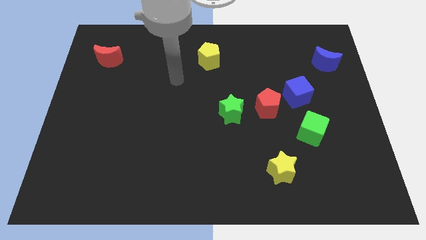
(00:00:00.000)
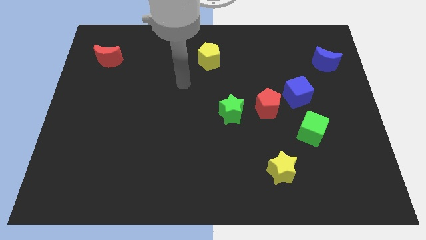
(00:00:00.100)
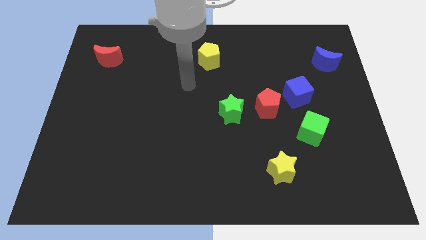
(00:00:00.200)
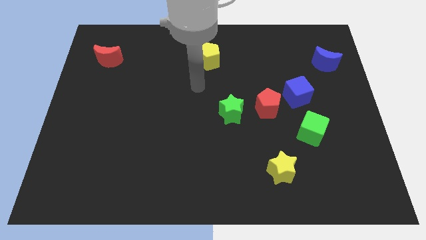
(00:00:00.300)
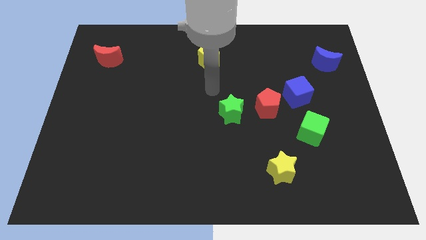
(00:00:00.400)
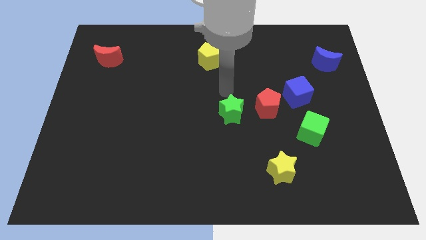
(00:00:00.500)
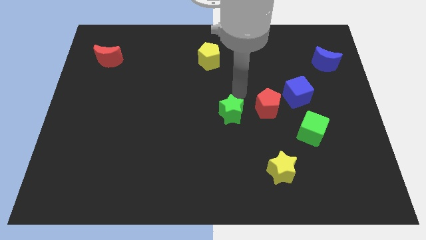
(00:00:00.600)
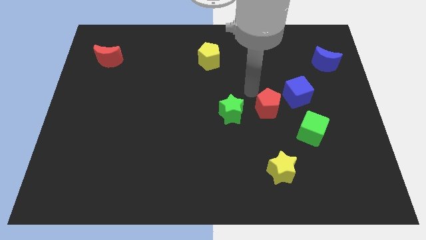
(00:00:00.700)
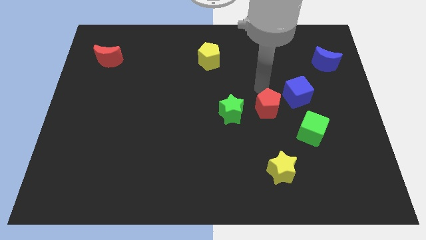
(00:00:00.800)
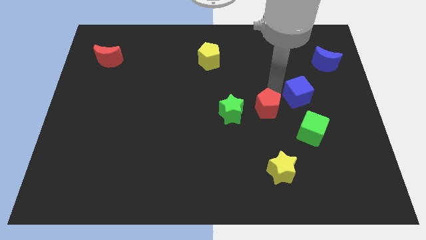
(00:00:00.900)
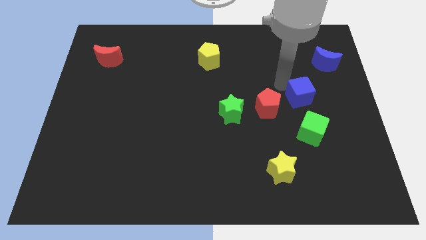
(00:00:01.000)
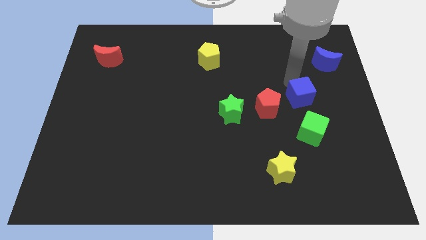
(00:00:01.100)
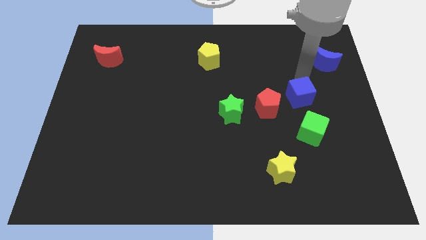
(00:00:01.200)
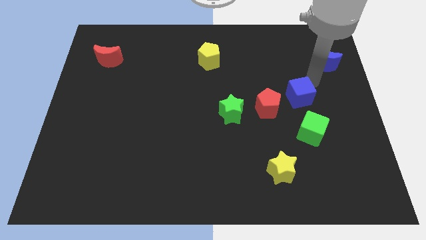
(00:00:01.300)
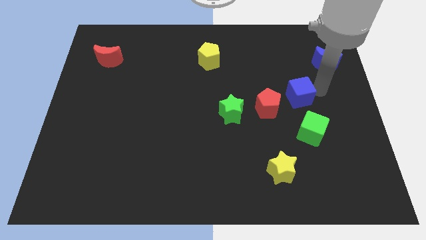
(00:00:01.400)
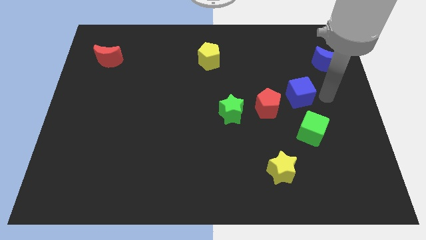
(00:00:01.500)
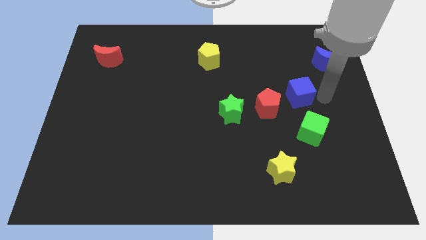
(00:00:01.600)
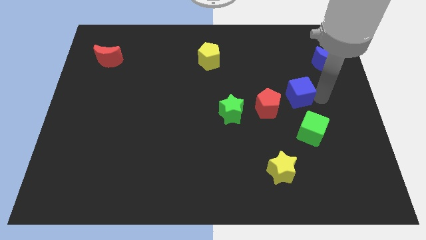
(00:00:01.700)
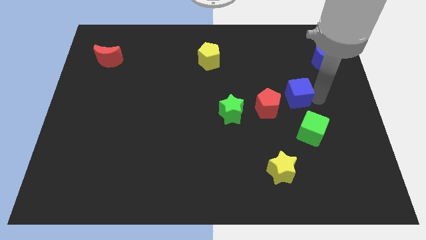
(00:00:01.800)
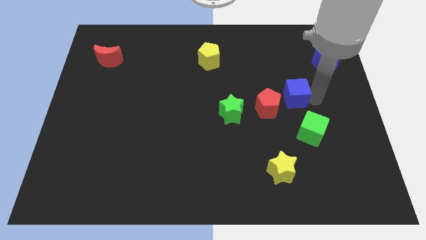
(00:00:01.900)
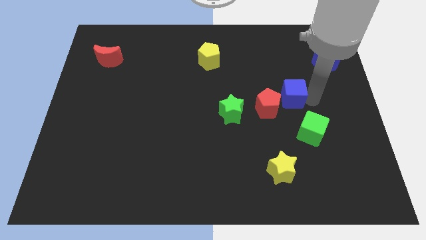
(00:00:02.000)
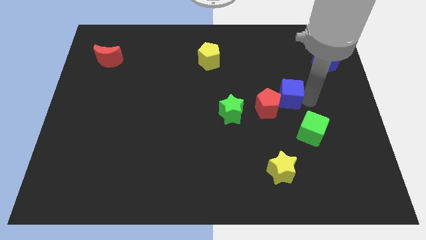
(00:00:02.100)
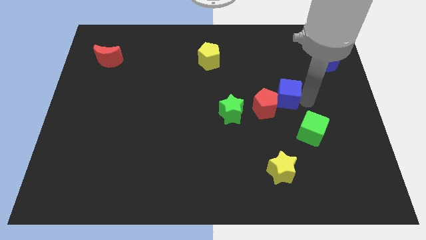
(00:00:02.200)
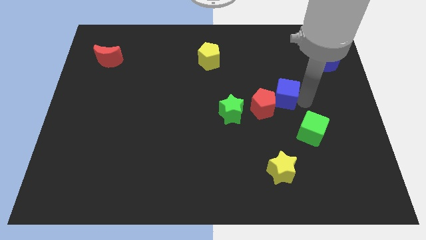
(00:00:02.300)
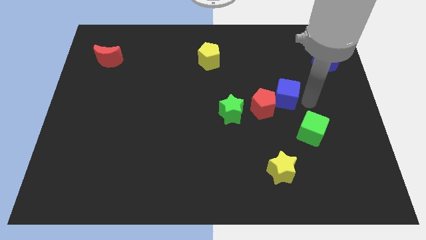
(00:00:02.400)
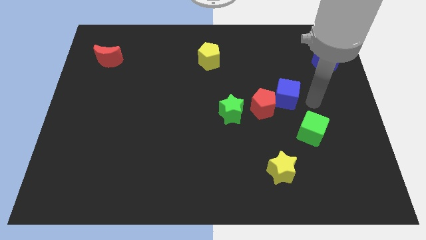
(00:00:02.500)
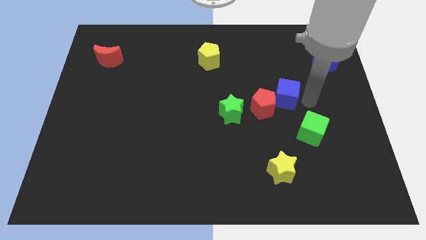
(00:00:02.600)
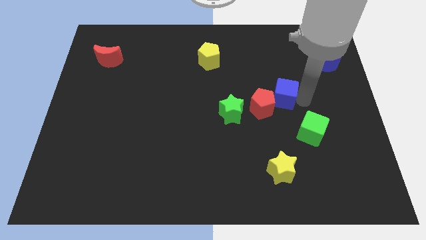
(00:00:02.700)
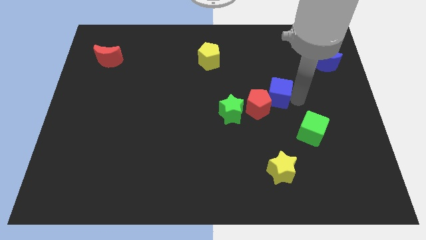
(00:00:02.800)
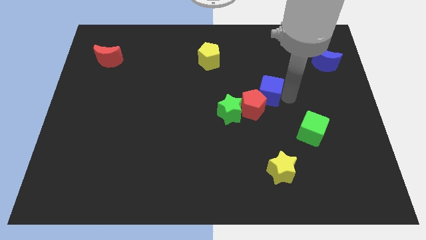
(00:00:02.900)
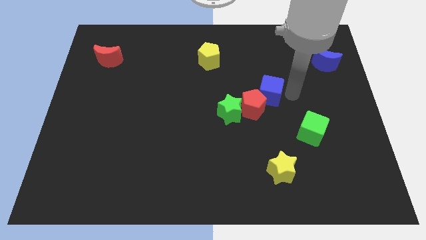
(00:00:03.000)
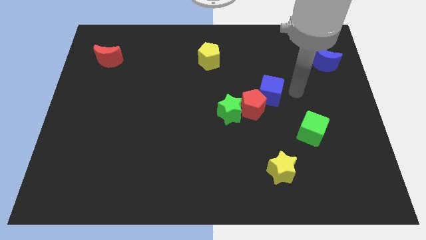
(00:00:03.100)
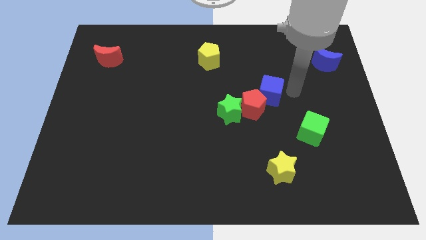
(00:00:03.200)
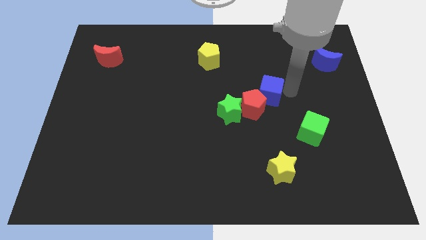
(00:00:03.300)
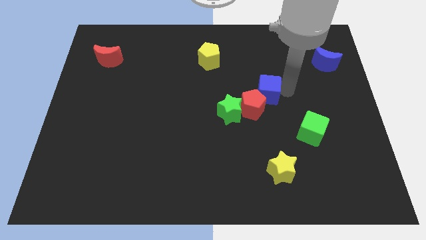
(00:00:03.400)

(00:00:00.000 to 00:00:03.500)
move the blue cube a bit left

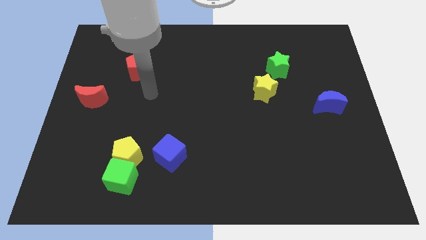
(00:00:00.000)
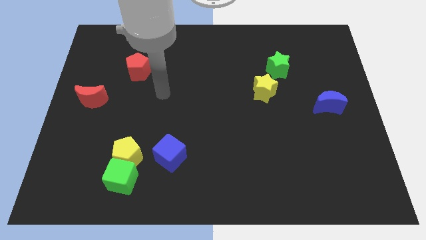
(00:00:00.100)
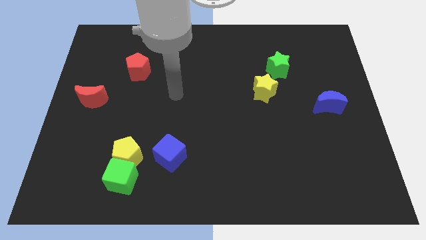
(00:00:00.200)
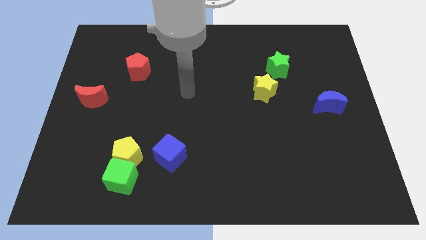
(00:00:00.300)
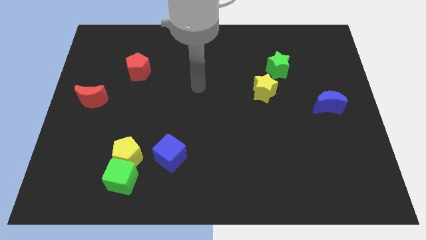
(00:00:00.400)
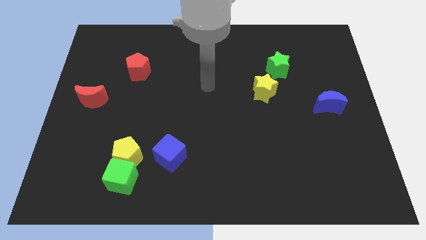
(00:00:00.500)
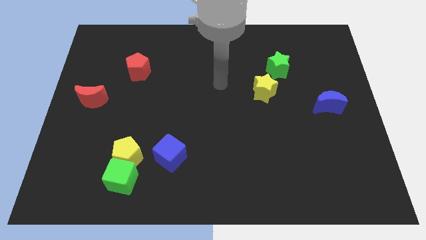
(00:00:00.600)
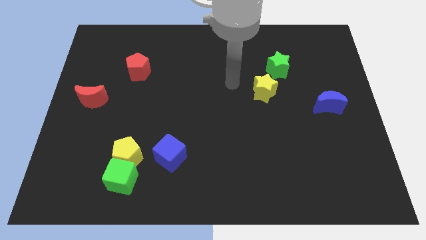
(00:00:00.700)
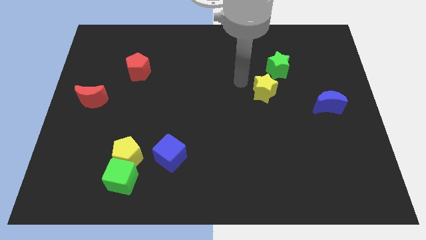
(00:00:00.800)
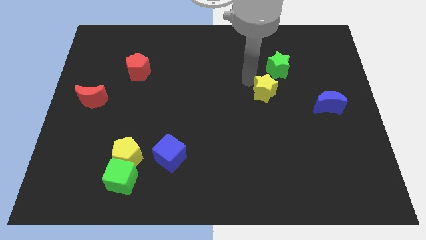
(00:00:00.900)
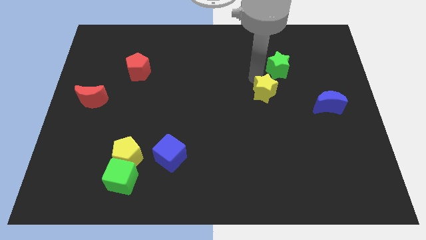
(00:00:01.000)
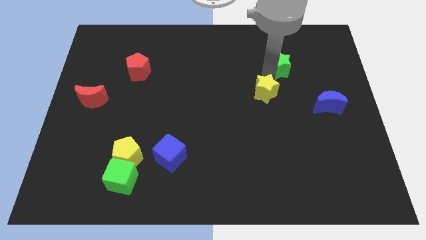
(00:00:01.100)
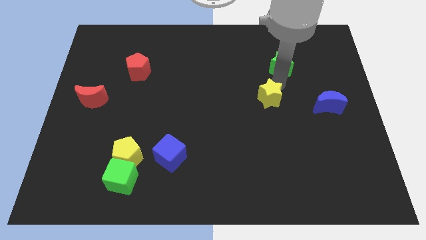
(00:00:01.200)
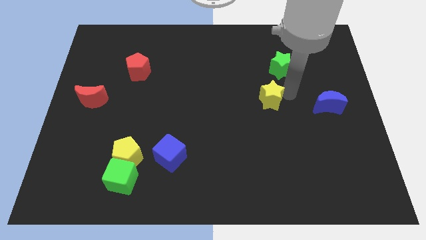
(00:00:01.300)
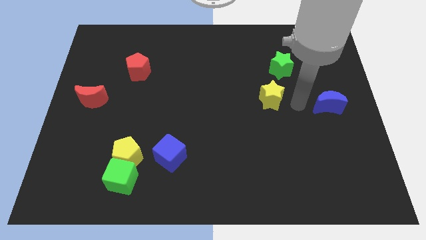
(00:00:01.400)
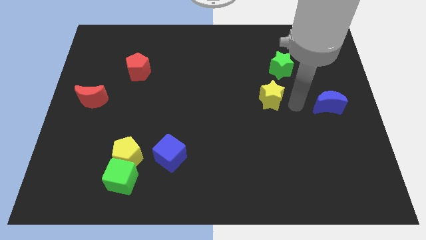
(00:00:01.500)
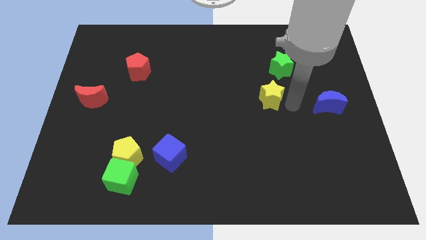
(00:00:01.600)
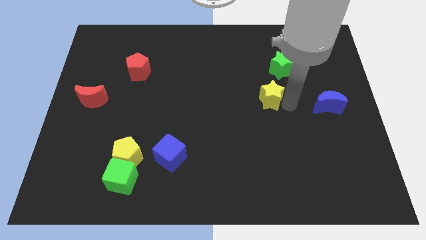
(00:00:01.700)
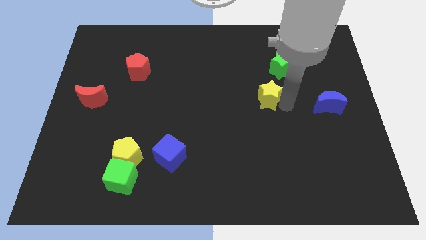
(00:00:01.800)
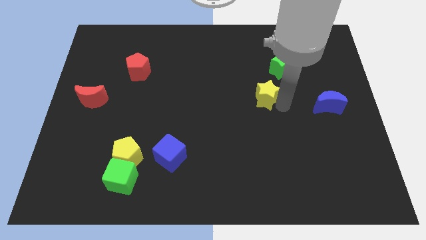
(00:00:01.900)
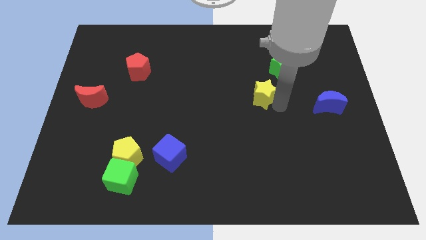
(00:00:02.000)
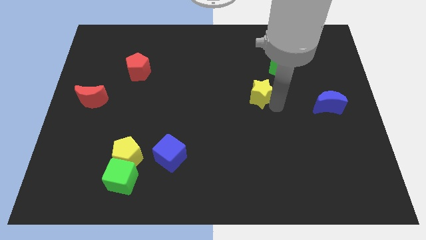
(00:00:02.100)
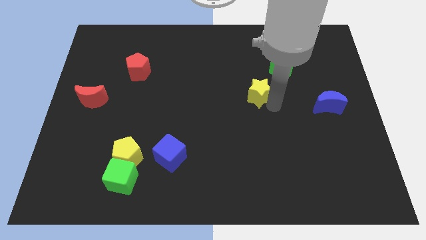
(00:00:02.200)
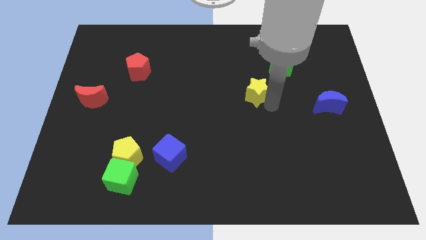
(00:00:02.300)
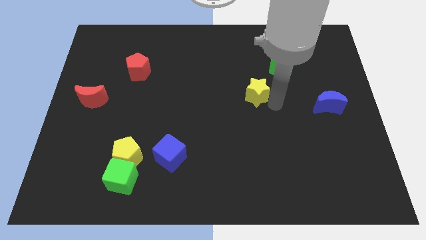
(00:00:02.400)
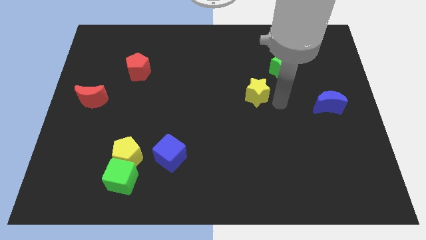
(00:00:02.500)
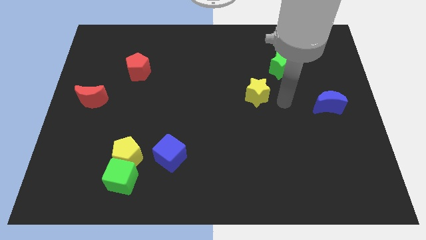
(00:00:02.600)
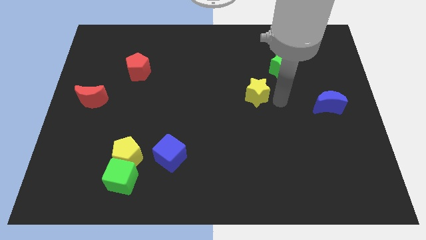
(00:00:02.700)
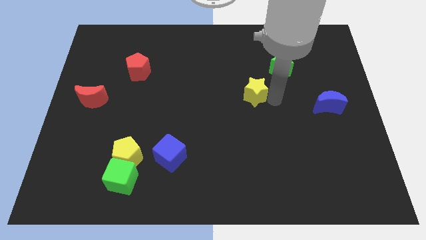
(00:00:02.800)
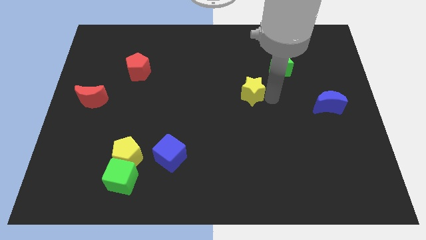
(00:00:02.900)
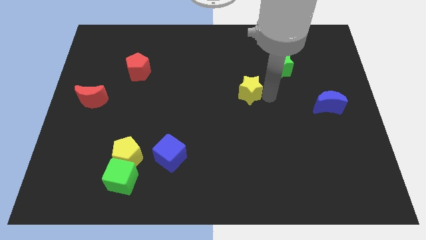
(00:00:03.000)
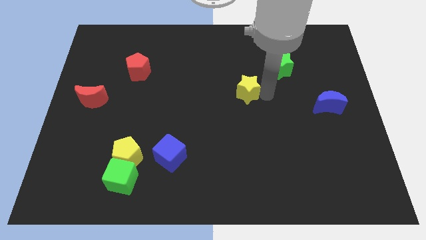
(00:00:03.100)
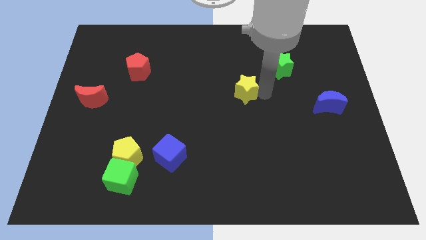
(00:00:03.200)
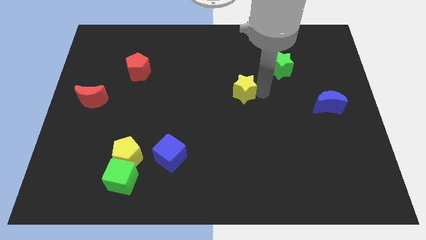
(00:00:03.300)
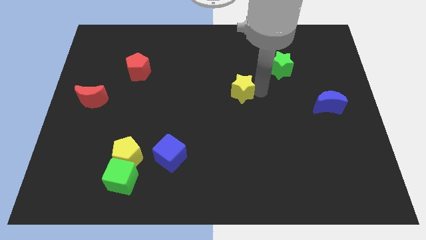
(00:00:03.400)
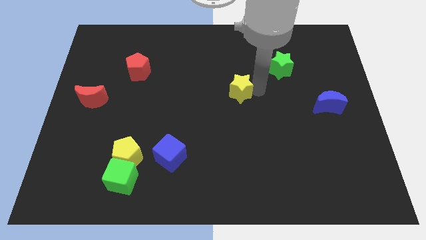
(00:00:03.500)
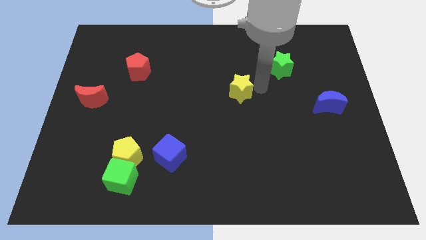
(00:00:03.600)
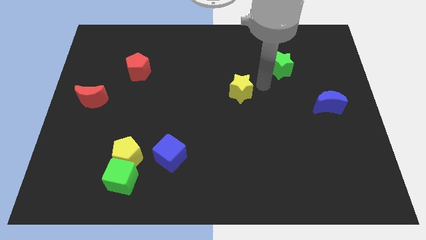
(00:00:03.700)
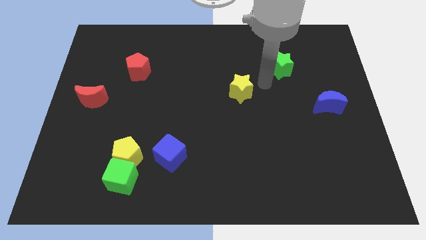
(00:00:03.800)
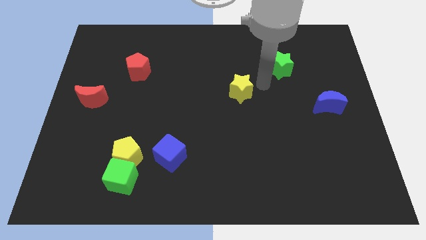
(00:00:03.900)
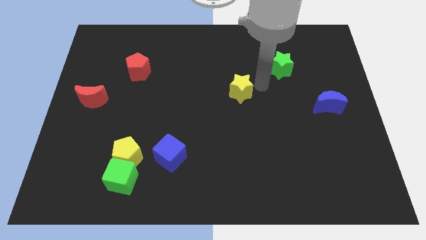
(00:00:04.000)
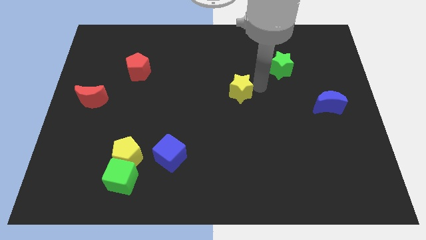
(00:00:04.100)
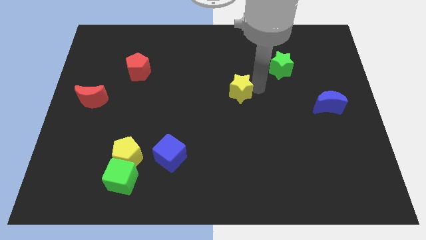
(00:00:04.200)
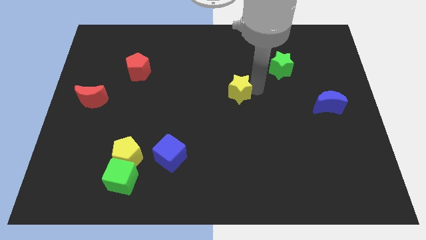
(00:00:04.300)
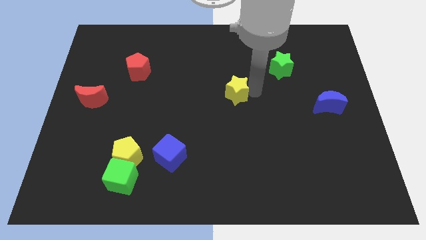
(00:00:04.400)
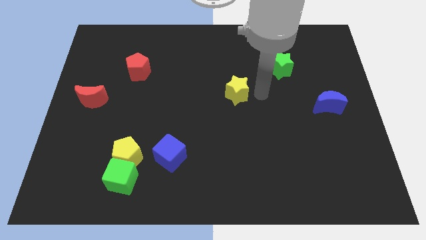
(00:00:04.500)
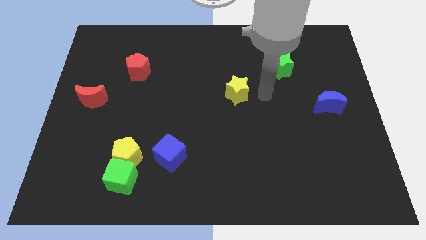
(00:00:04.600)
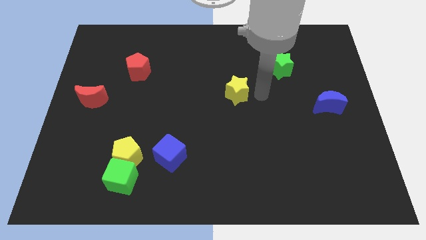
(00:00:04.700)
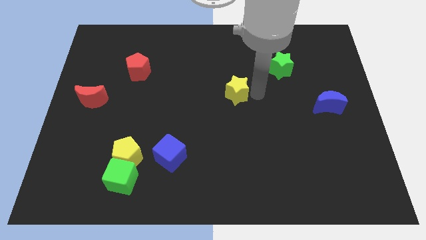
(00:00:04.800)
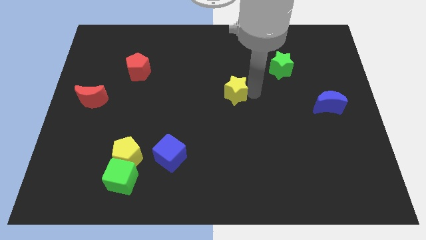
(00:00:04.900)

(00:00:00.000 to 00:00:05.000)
slightly slide the yellow star left
